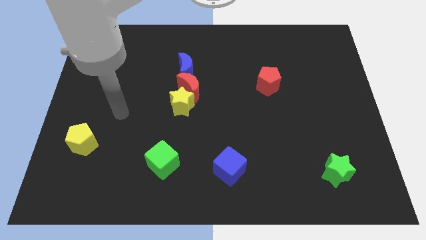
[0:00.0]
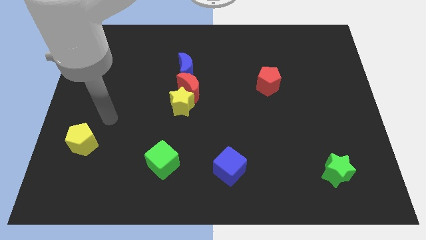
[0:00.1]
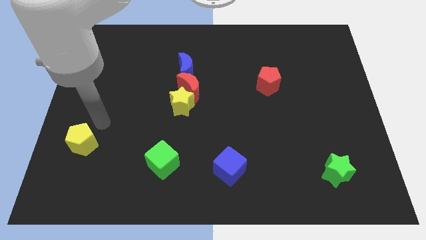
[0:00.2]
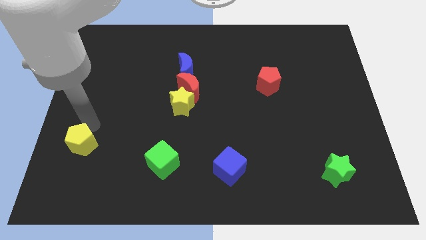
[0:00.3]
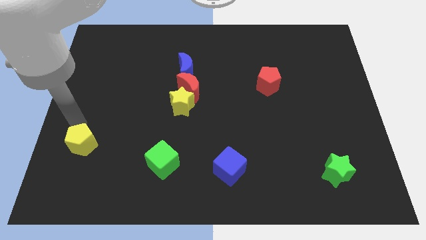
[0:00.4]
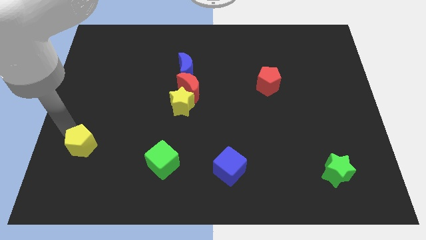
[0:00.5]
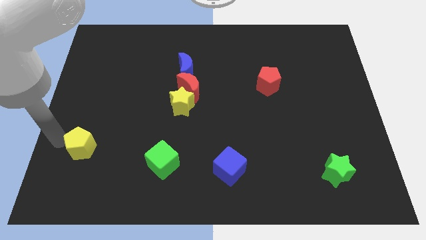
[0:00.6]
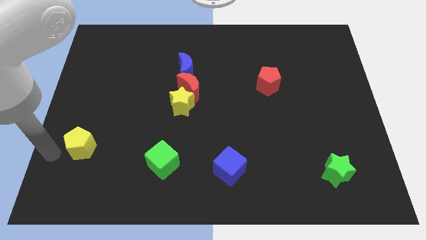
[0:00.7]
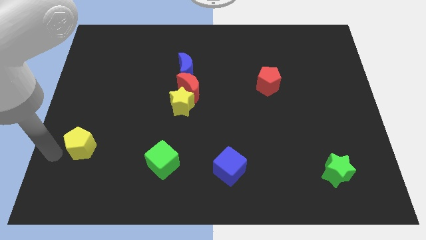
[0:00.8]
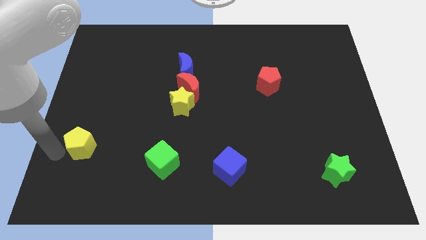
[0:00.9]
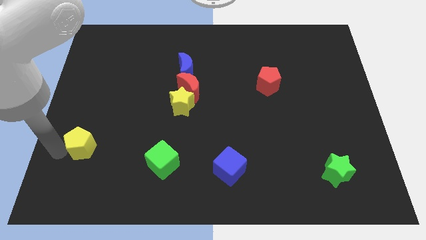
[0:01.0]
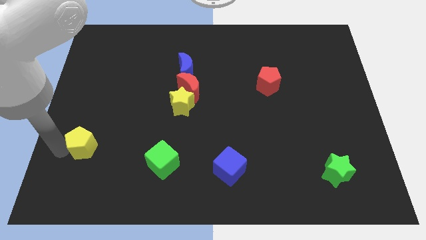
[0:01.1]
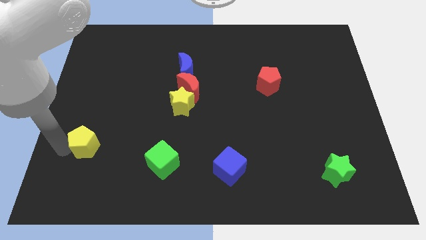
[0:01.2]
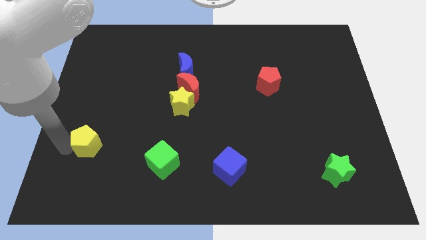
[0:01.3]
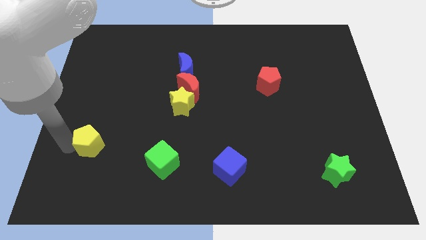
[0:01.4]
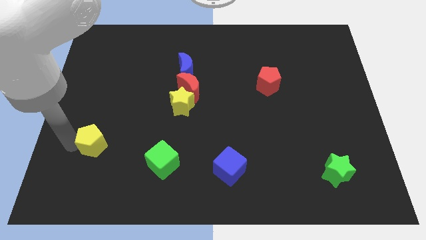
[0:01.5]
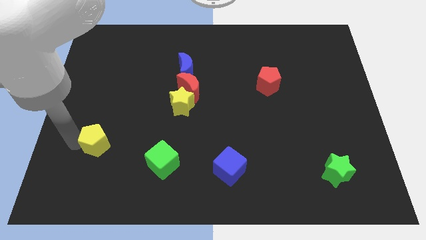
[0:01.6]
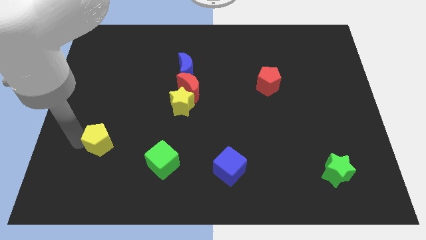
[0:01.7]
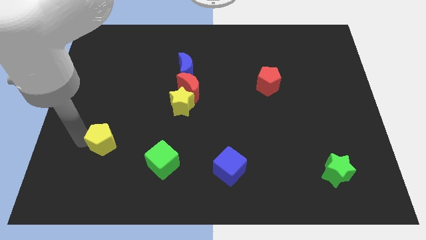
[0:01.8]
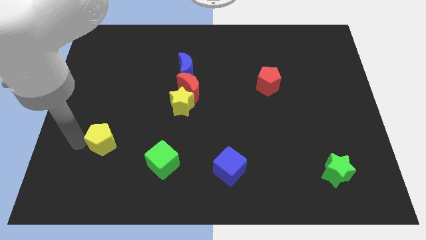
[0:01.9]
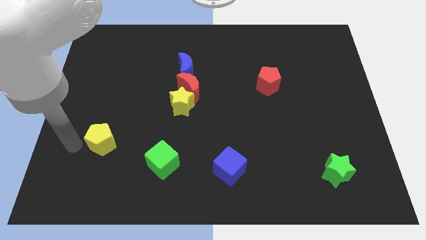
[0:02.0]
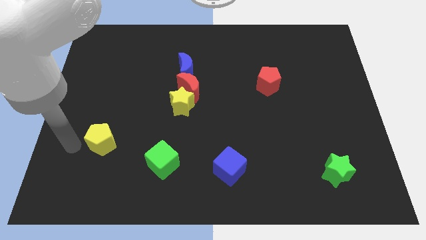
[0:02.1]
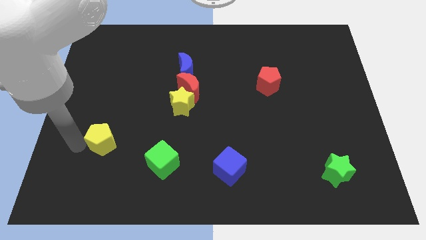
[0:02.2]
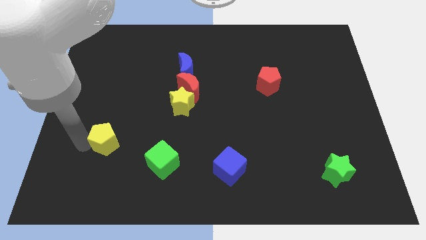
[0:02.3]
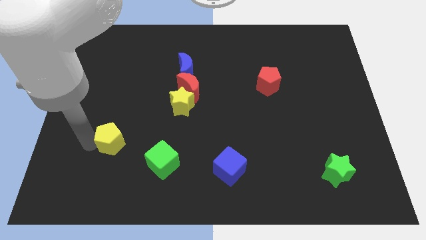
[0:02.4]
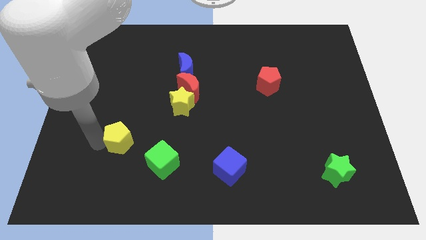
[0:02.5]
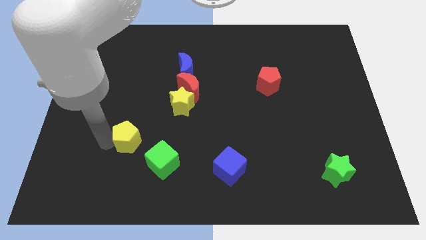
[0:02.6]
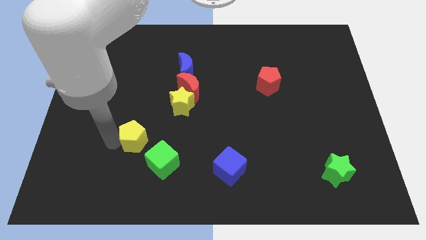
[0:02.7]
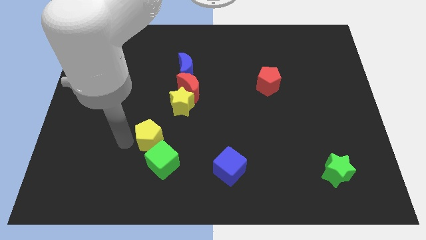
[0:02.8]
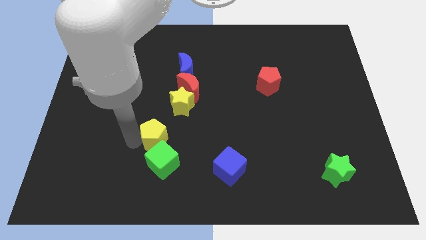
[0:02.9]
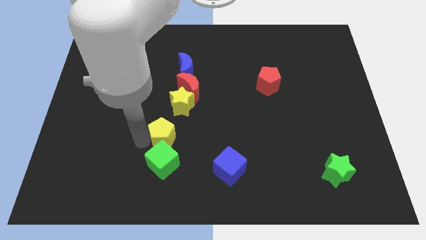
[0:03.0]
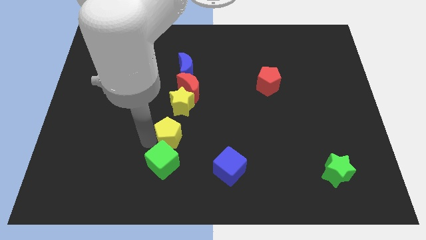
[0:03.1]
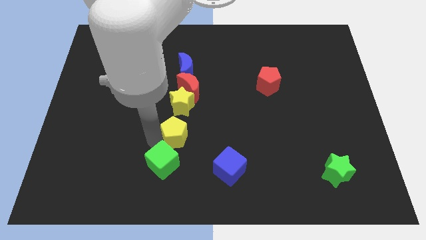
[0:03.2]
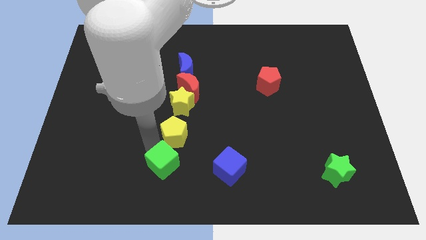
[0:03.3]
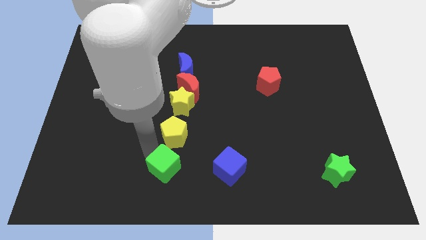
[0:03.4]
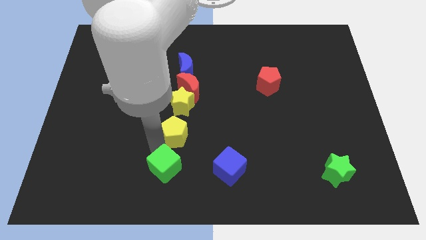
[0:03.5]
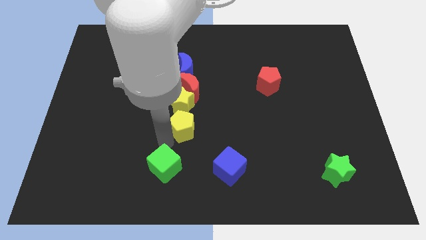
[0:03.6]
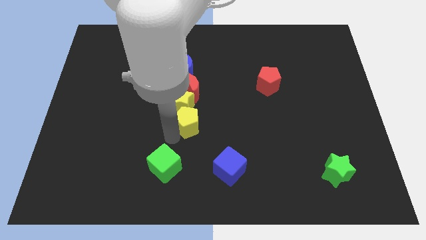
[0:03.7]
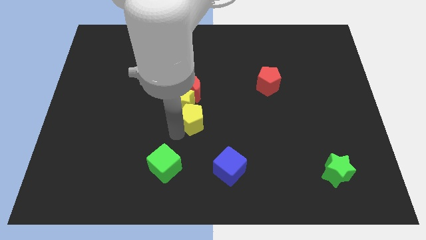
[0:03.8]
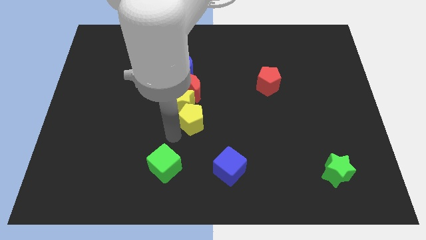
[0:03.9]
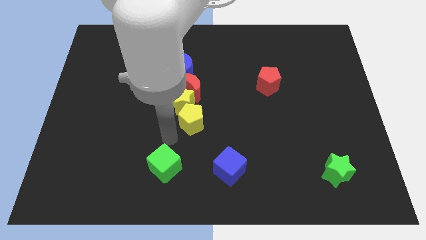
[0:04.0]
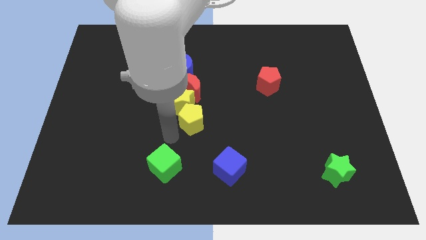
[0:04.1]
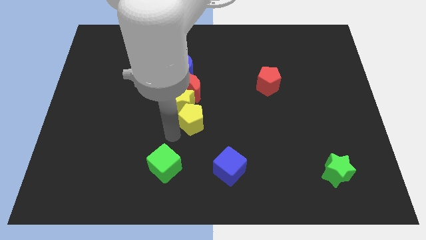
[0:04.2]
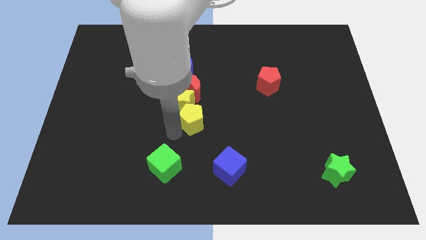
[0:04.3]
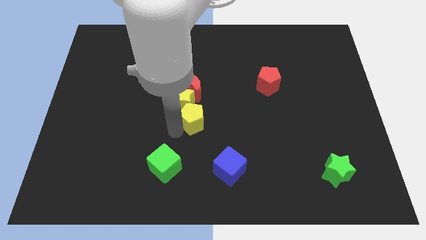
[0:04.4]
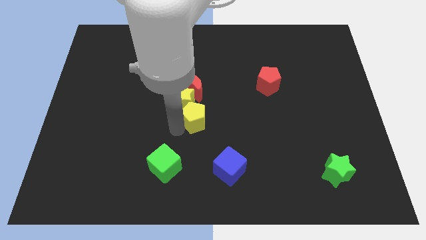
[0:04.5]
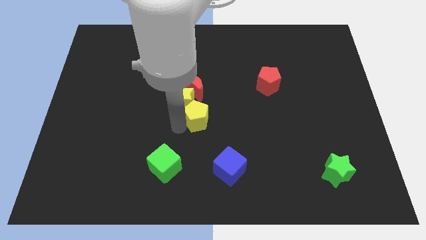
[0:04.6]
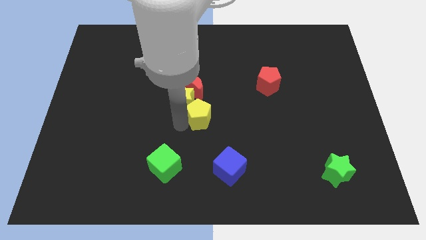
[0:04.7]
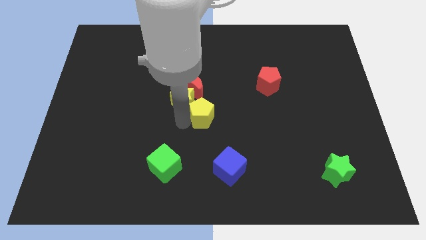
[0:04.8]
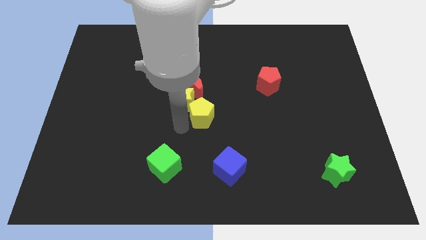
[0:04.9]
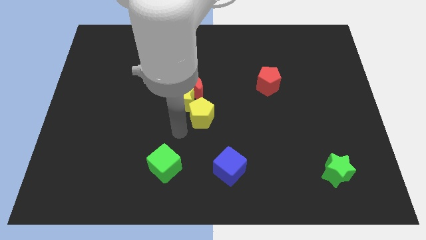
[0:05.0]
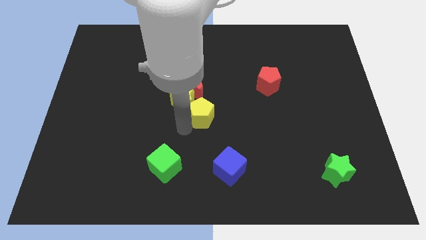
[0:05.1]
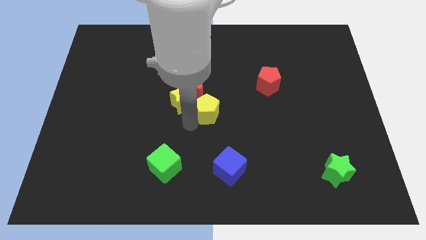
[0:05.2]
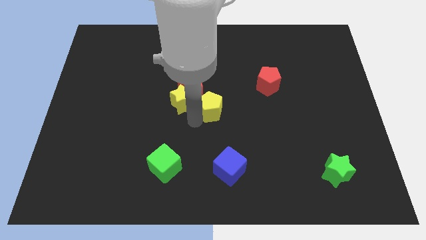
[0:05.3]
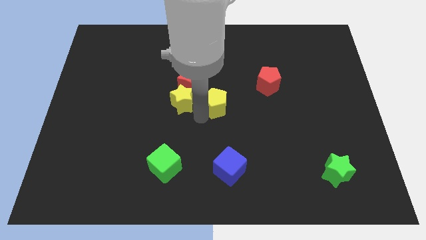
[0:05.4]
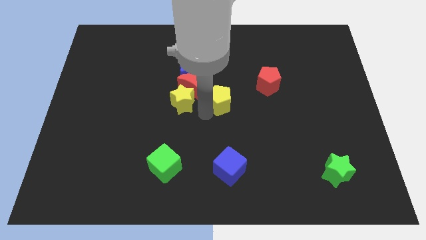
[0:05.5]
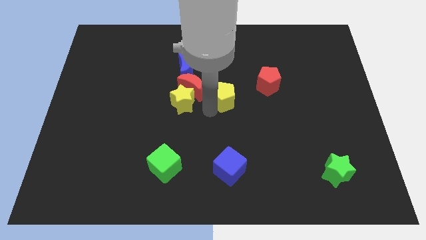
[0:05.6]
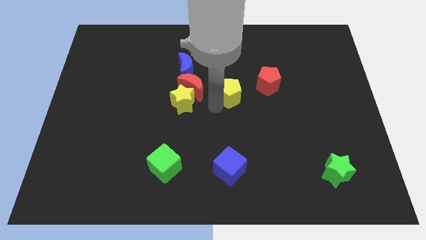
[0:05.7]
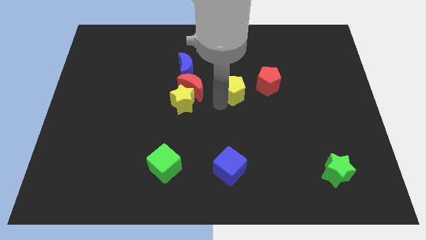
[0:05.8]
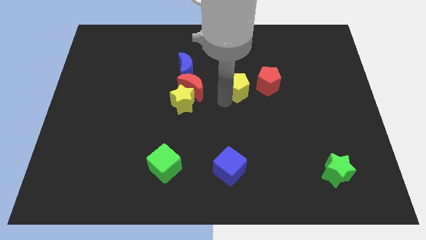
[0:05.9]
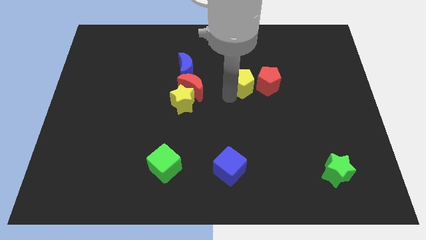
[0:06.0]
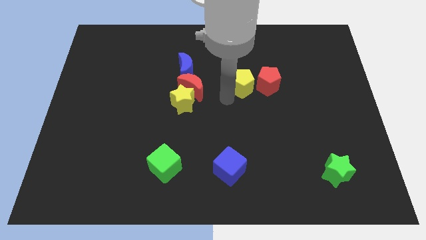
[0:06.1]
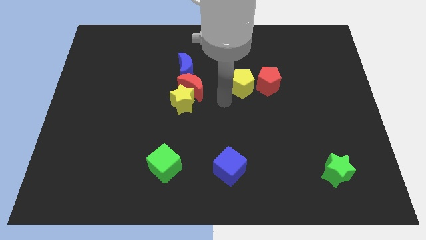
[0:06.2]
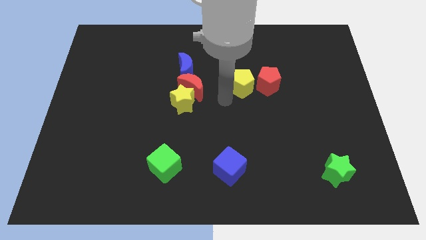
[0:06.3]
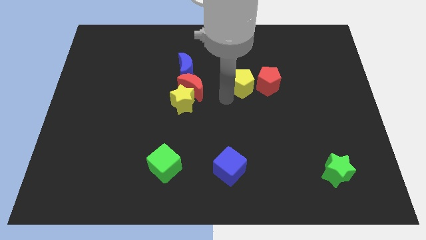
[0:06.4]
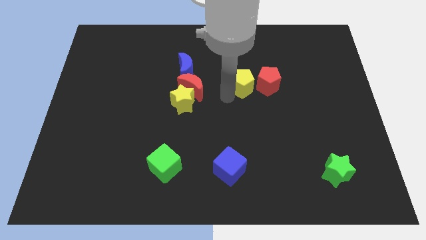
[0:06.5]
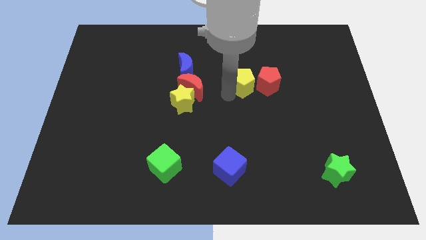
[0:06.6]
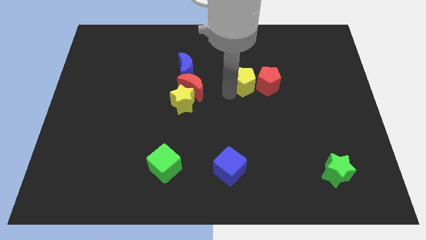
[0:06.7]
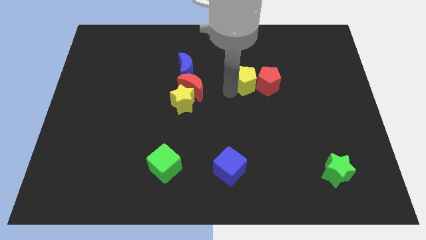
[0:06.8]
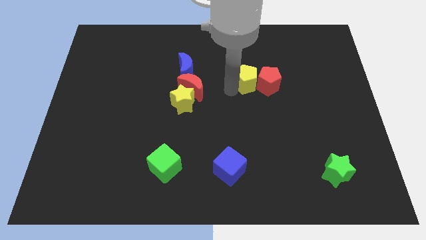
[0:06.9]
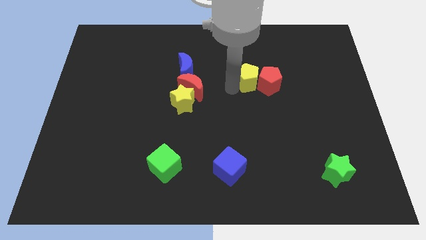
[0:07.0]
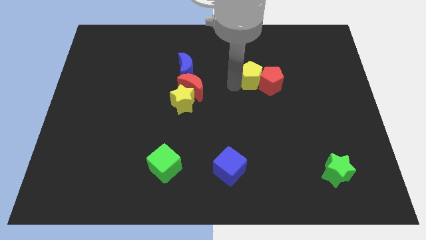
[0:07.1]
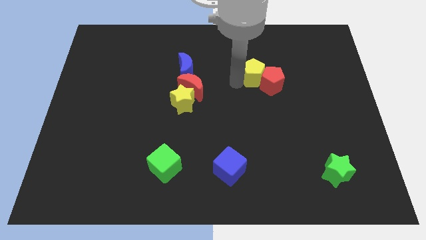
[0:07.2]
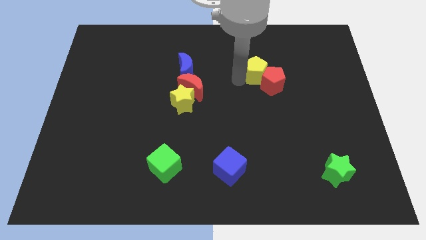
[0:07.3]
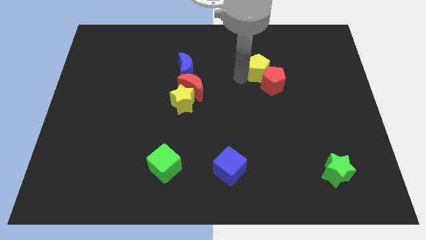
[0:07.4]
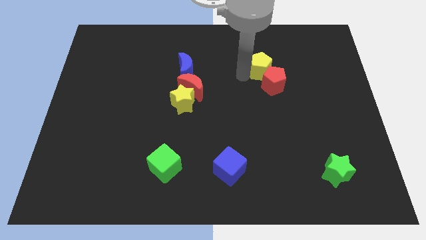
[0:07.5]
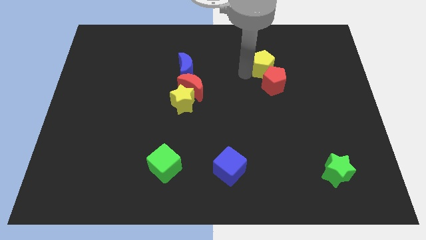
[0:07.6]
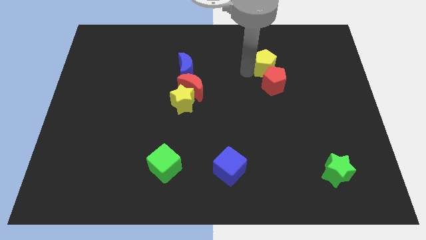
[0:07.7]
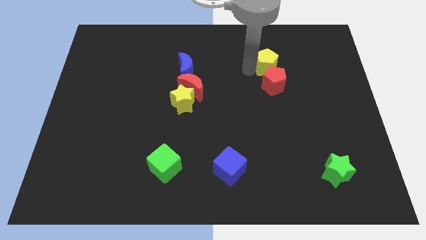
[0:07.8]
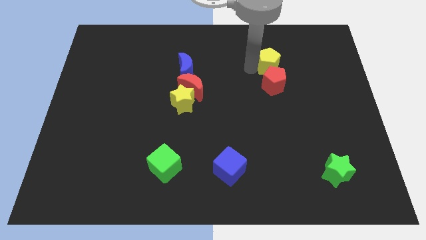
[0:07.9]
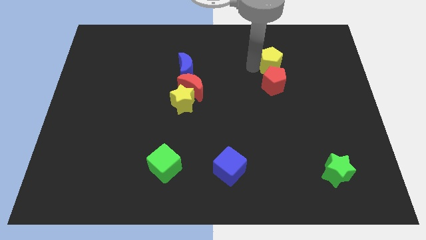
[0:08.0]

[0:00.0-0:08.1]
put the yellow pentagon diagonally up and to the right of the red pentagon
